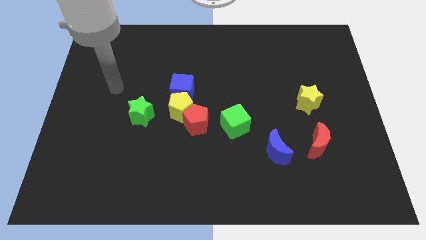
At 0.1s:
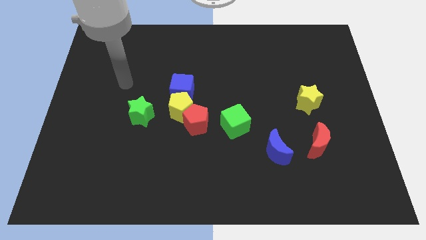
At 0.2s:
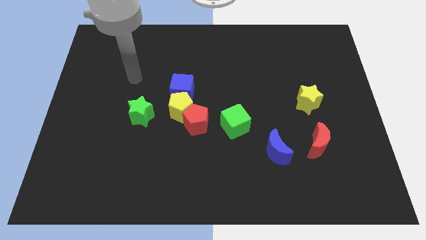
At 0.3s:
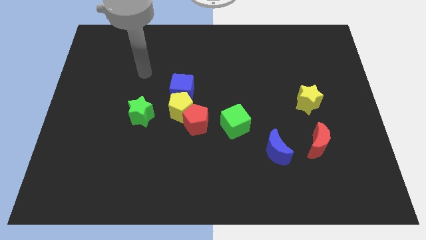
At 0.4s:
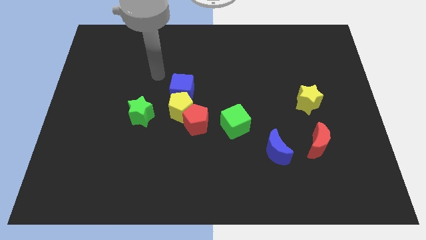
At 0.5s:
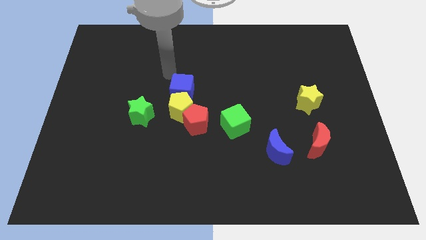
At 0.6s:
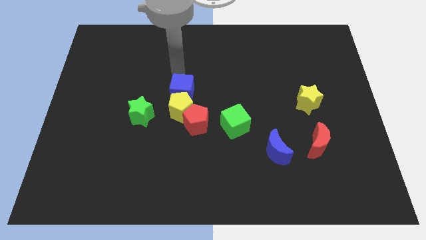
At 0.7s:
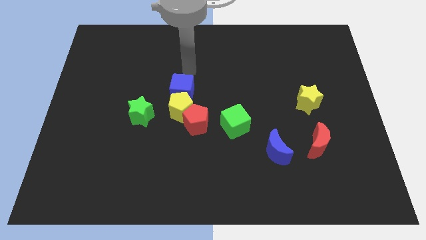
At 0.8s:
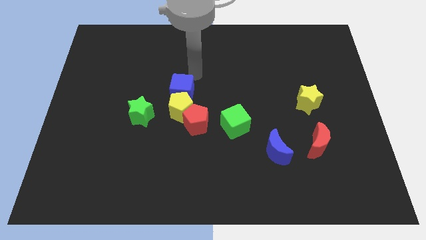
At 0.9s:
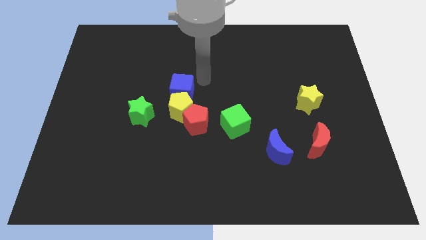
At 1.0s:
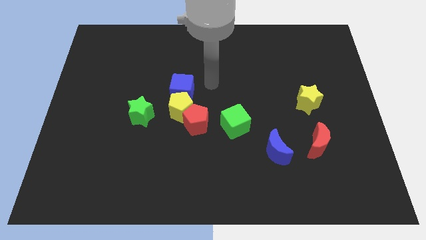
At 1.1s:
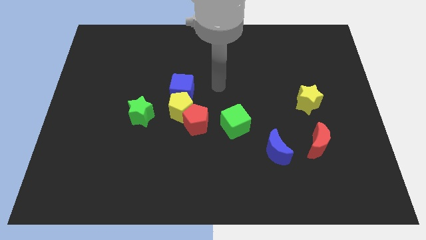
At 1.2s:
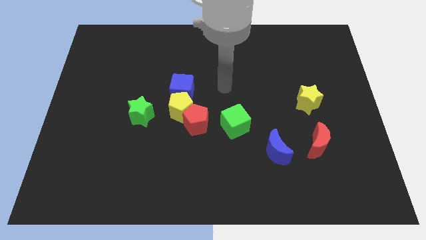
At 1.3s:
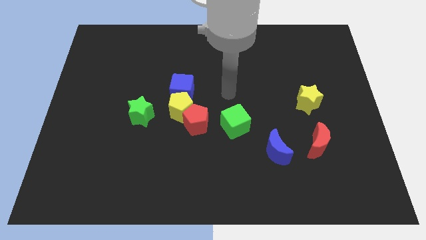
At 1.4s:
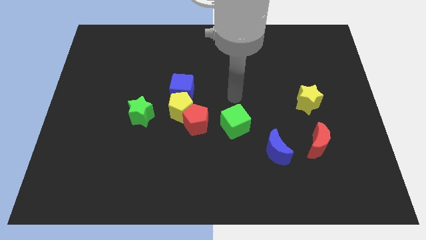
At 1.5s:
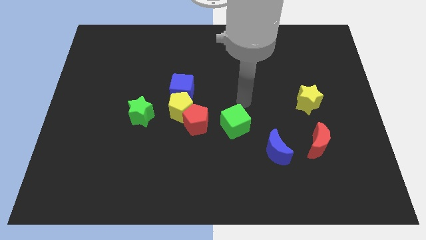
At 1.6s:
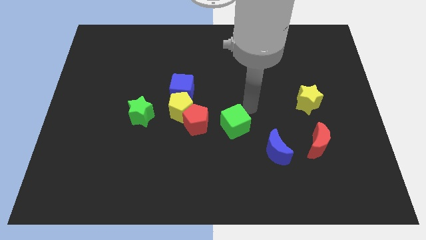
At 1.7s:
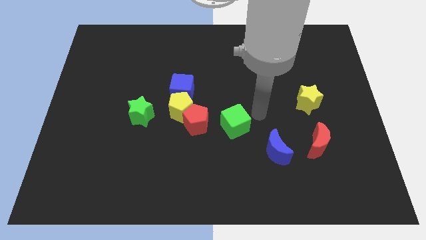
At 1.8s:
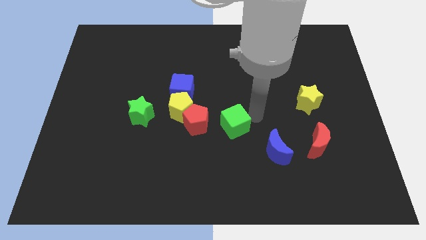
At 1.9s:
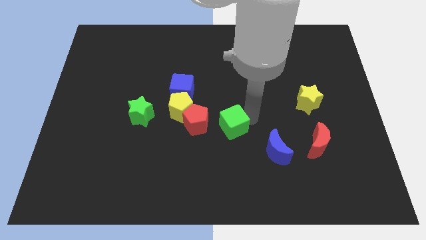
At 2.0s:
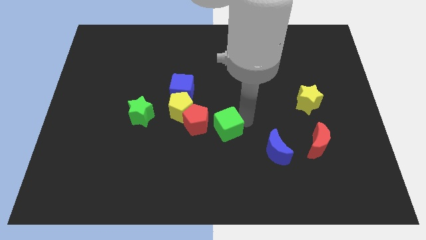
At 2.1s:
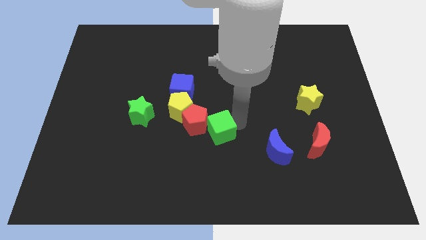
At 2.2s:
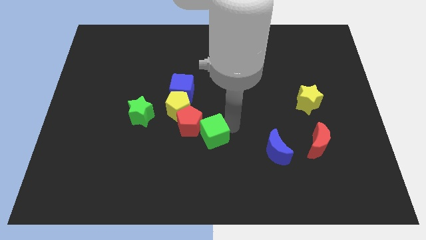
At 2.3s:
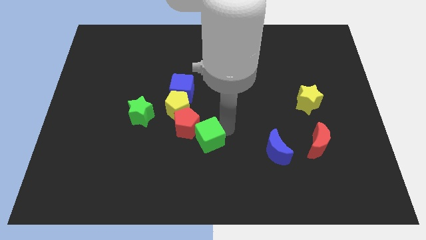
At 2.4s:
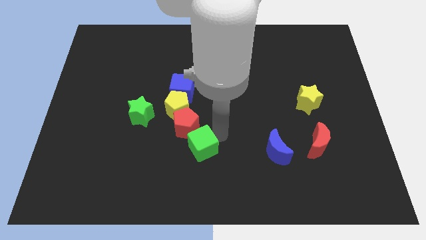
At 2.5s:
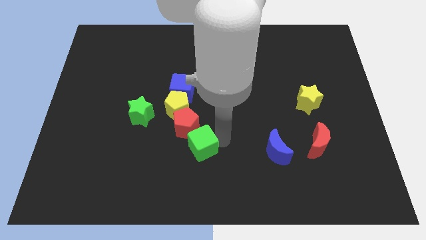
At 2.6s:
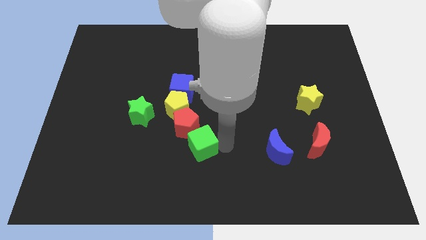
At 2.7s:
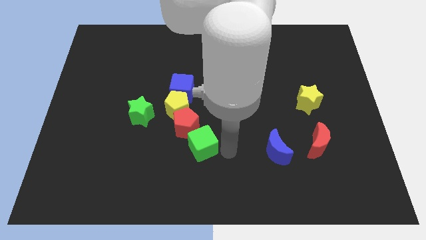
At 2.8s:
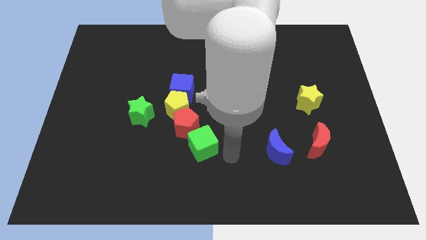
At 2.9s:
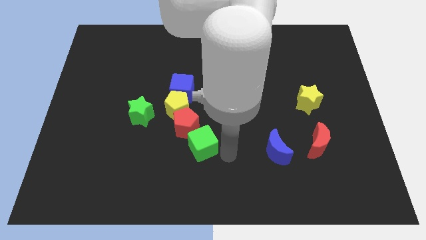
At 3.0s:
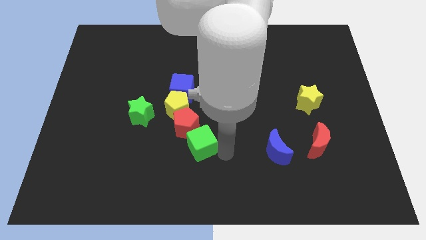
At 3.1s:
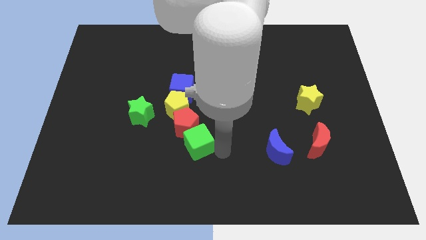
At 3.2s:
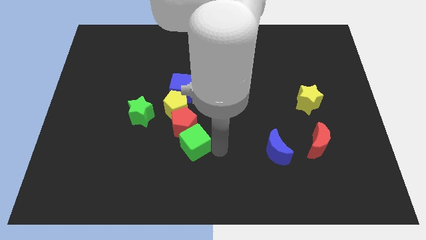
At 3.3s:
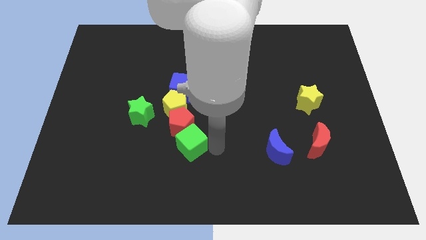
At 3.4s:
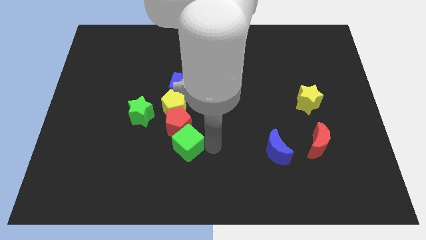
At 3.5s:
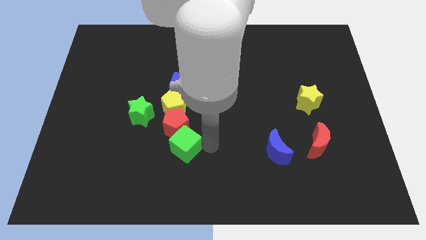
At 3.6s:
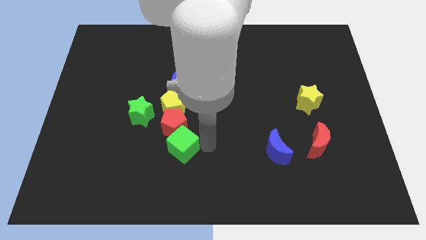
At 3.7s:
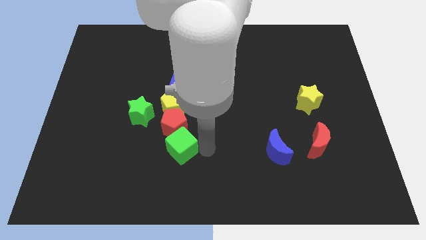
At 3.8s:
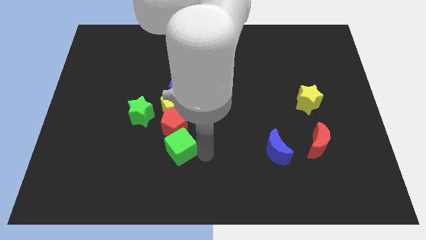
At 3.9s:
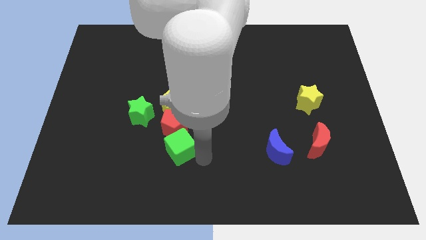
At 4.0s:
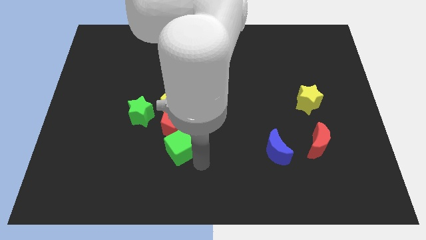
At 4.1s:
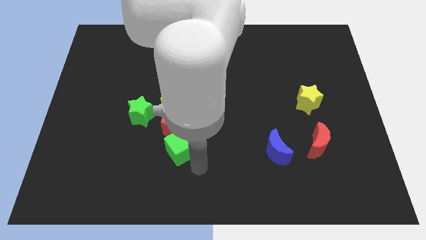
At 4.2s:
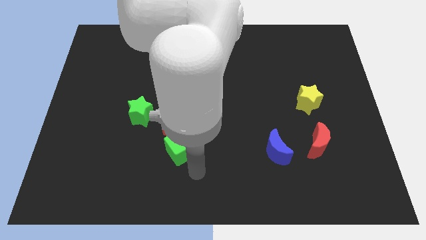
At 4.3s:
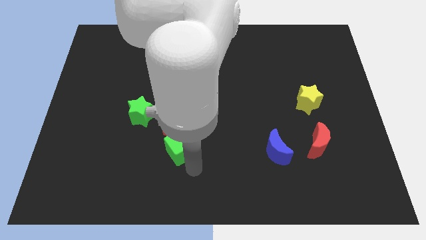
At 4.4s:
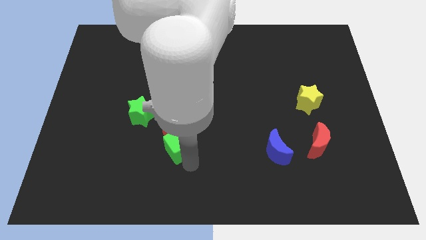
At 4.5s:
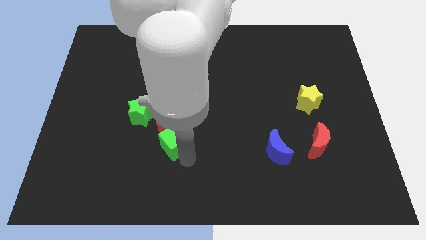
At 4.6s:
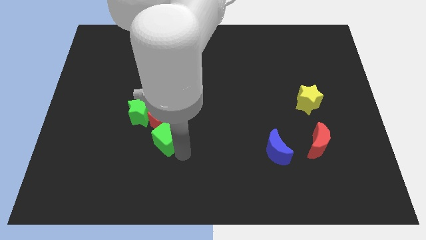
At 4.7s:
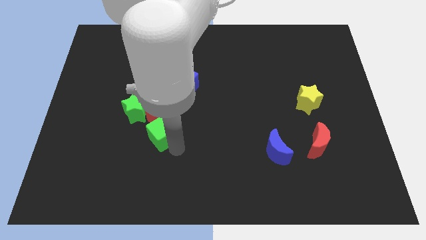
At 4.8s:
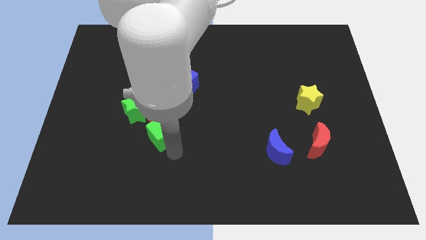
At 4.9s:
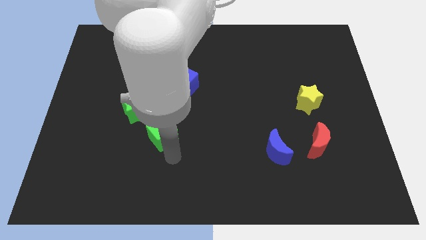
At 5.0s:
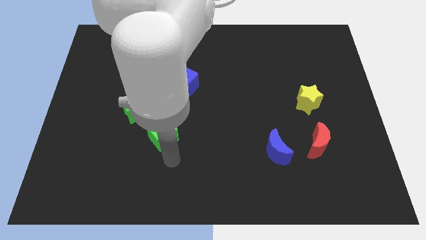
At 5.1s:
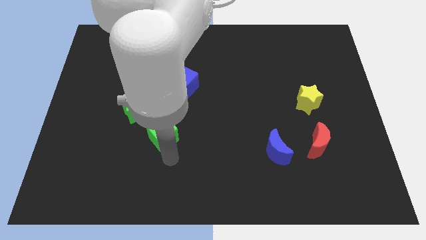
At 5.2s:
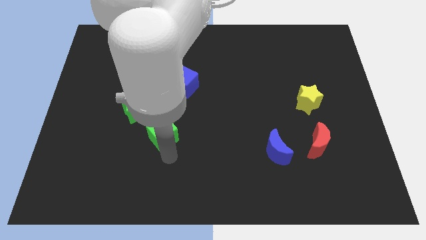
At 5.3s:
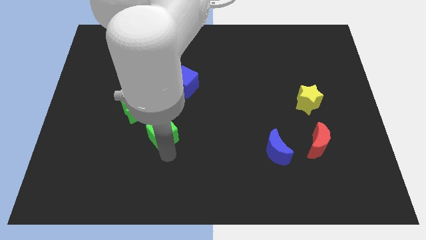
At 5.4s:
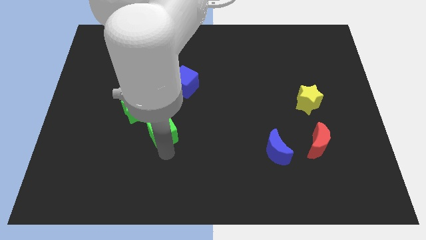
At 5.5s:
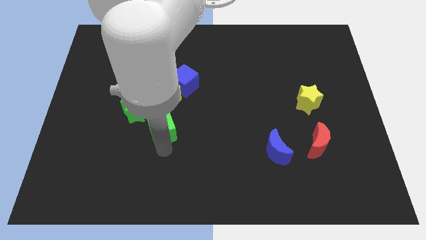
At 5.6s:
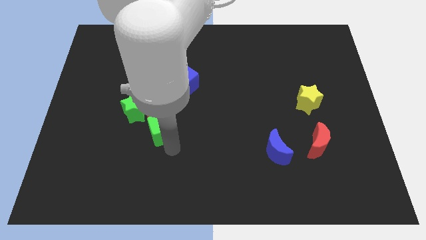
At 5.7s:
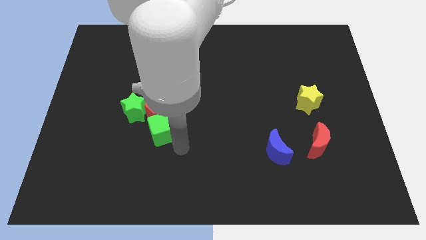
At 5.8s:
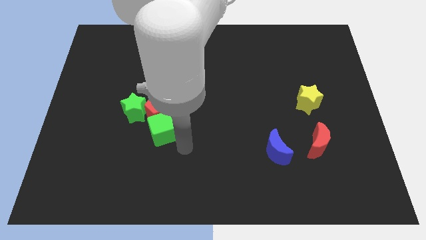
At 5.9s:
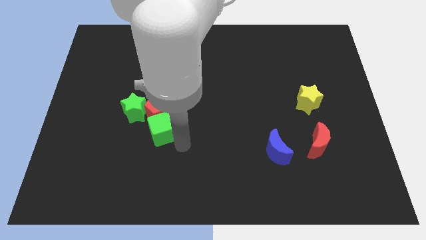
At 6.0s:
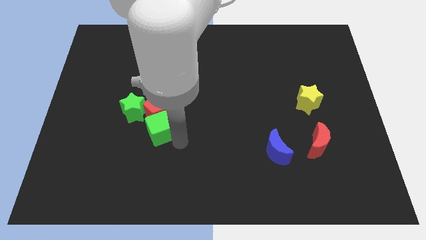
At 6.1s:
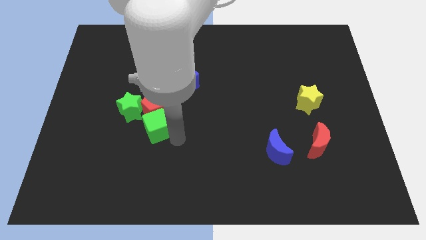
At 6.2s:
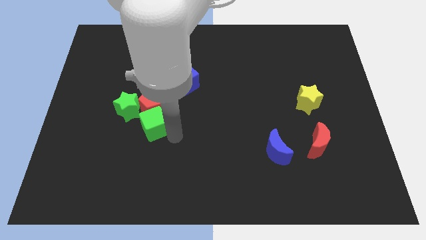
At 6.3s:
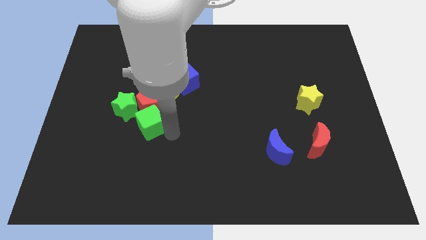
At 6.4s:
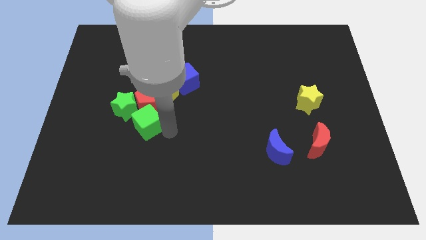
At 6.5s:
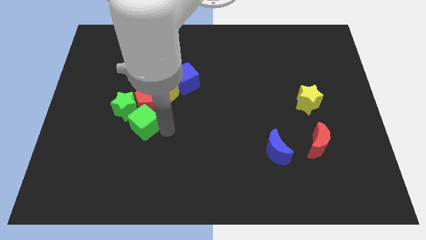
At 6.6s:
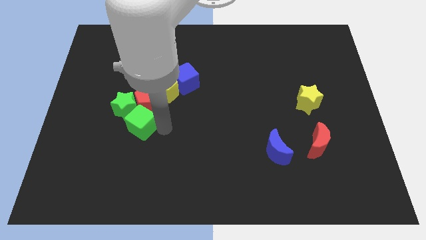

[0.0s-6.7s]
slide the green cube towards the green star

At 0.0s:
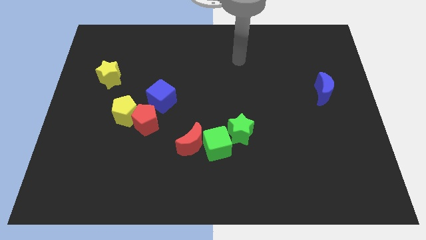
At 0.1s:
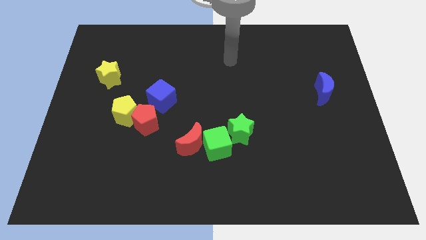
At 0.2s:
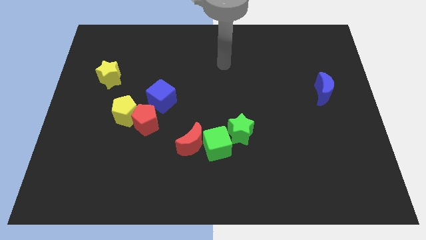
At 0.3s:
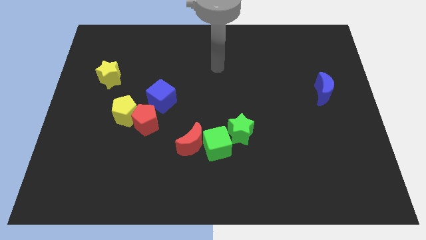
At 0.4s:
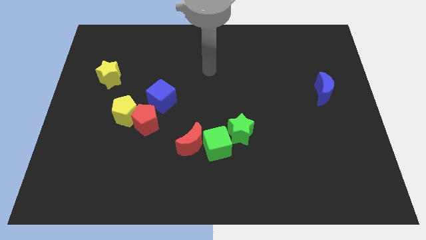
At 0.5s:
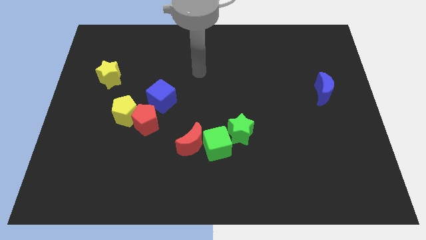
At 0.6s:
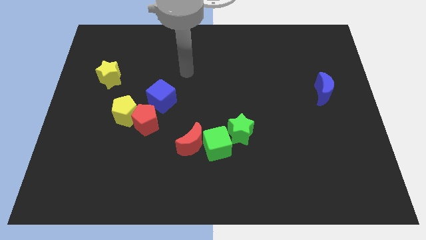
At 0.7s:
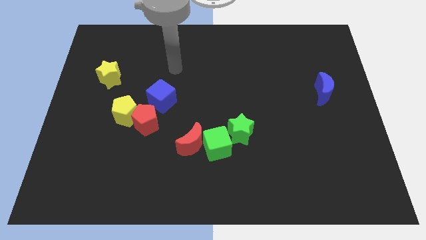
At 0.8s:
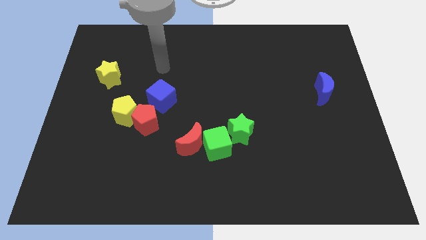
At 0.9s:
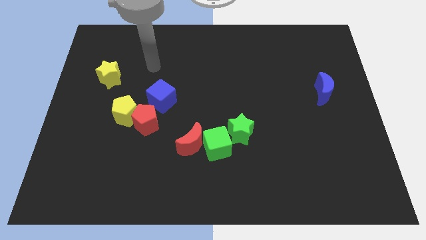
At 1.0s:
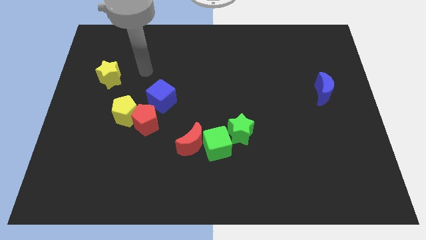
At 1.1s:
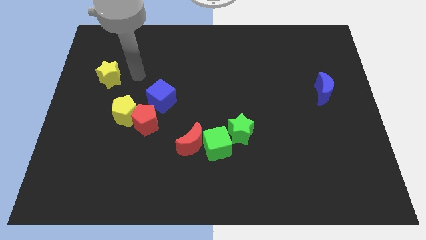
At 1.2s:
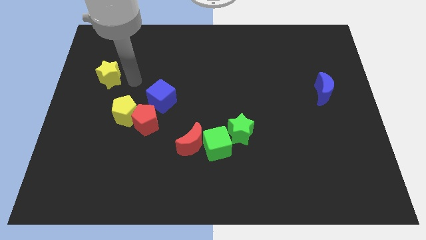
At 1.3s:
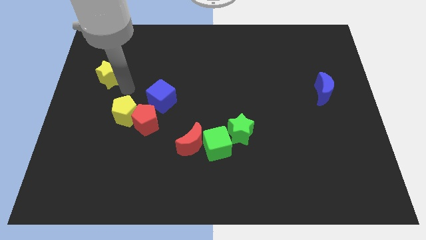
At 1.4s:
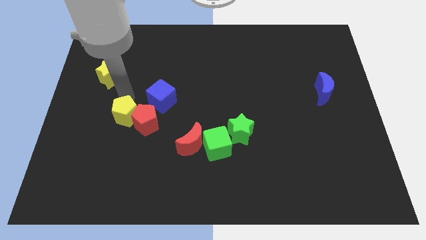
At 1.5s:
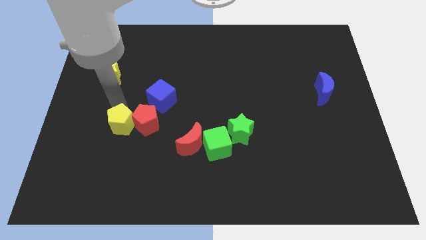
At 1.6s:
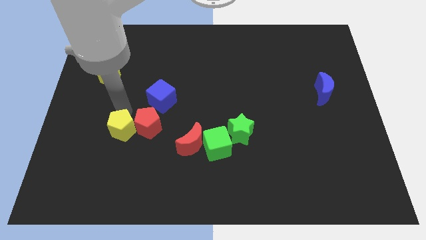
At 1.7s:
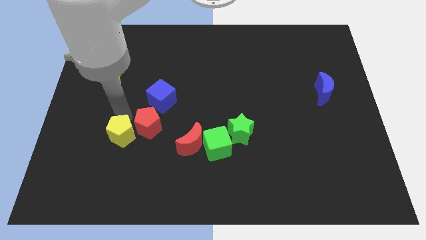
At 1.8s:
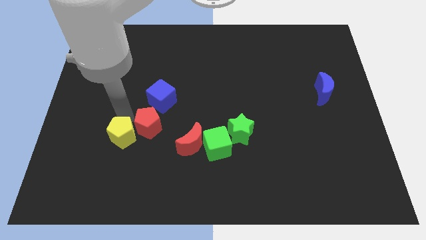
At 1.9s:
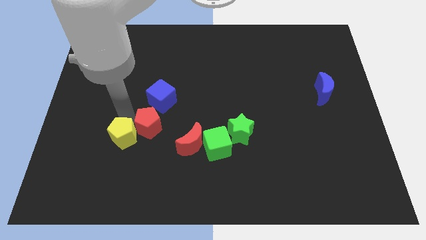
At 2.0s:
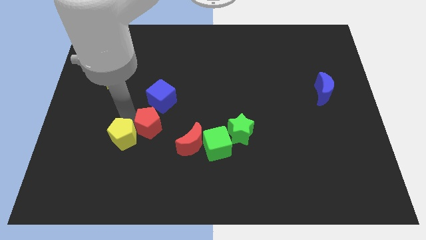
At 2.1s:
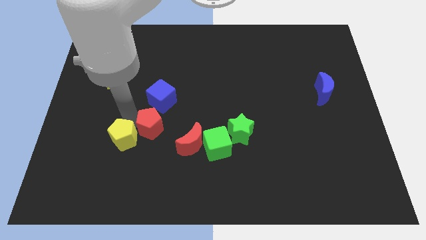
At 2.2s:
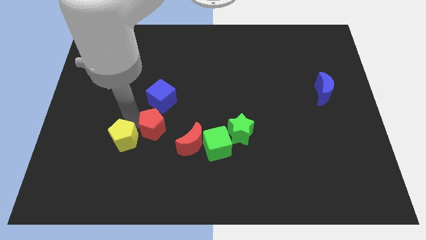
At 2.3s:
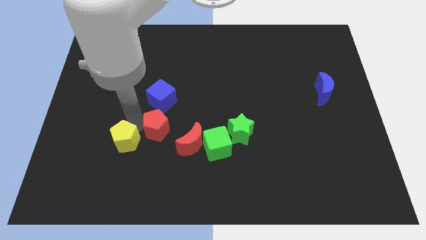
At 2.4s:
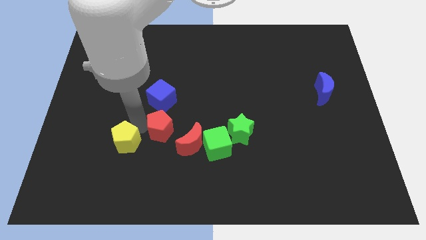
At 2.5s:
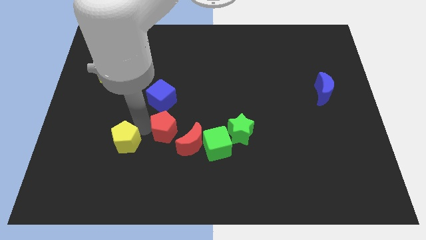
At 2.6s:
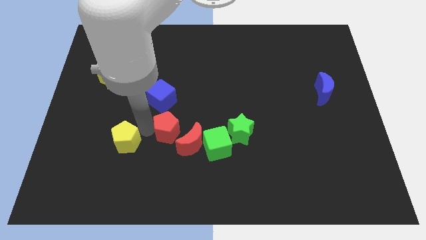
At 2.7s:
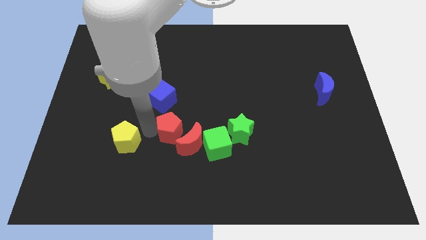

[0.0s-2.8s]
slide the red pentagon close to the red moon
